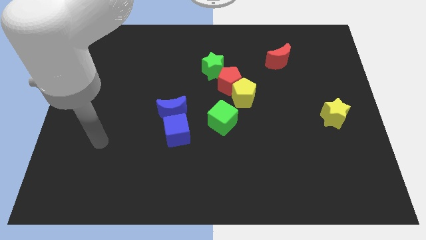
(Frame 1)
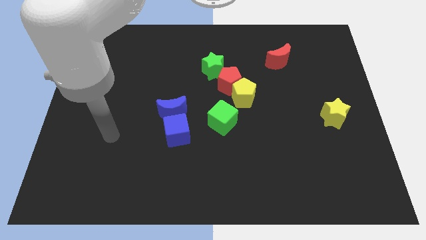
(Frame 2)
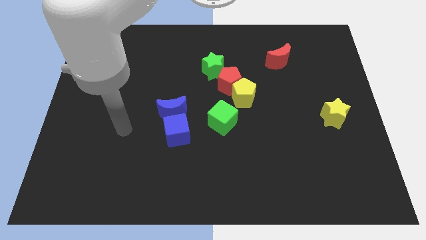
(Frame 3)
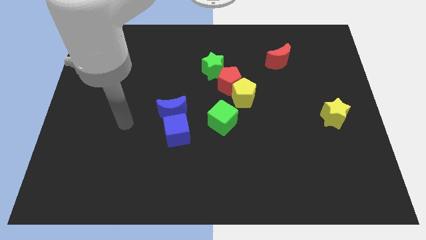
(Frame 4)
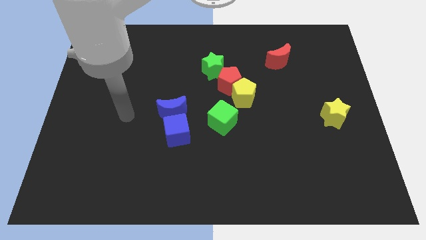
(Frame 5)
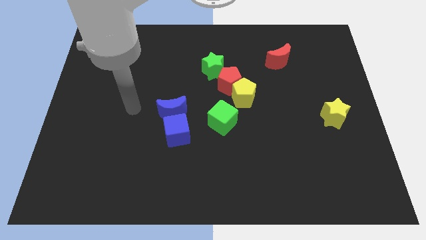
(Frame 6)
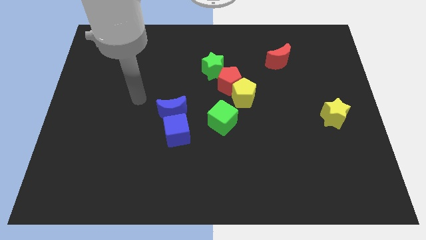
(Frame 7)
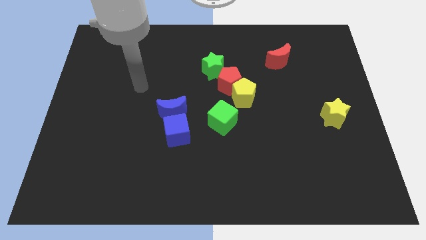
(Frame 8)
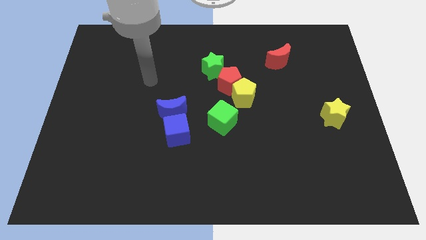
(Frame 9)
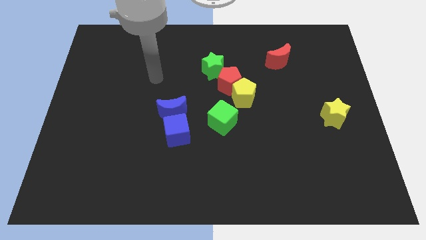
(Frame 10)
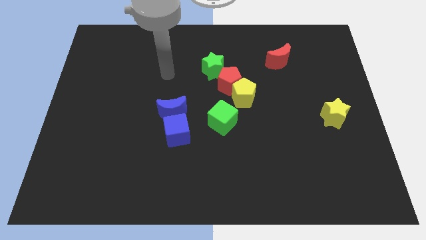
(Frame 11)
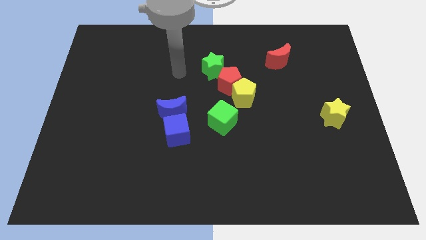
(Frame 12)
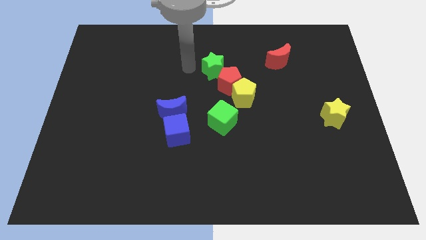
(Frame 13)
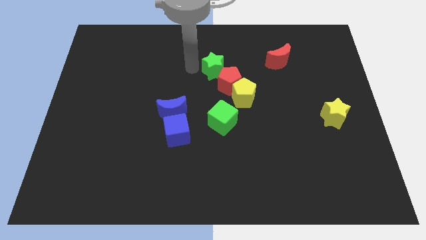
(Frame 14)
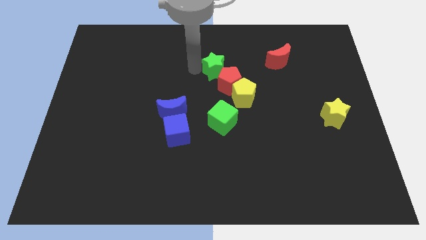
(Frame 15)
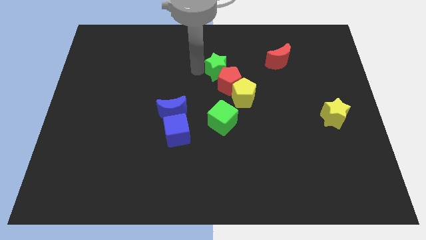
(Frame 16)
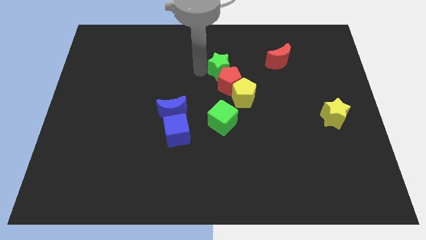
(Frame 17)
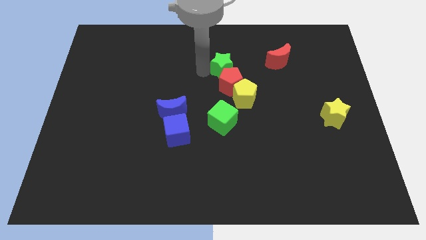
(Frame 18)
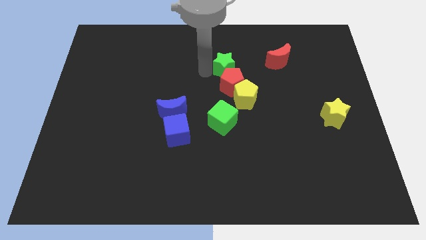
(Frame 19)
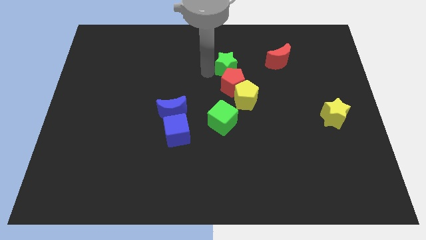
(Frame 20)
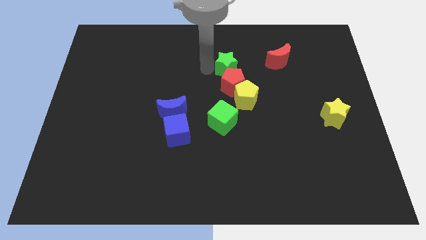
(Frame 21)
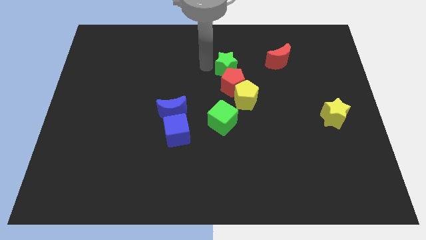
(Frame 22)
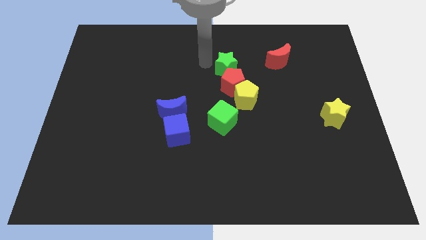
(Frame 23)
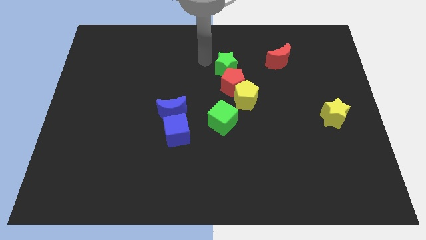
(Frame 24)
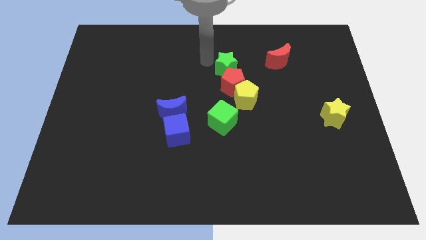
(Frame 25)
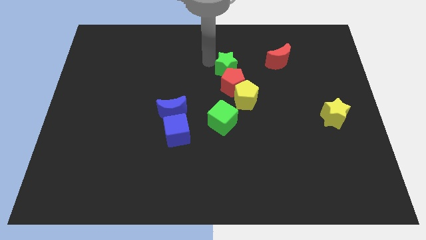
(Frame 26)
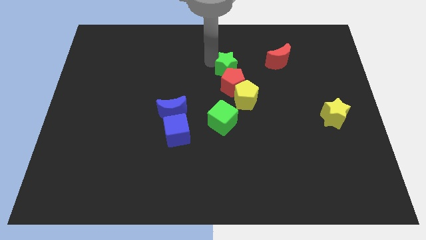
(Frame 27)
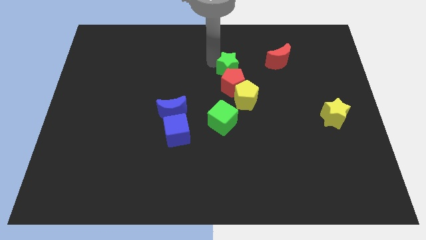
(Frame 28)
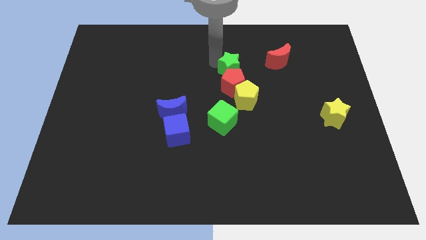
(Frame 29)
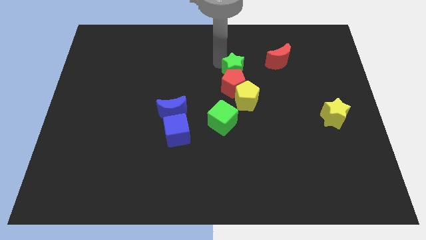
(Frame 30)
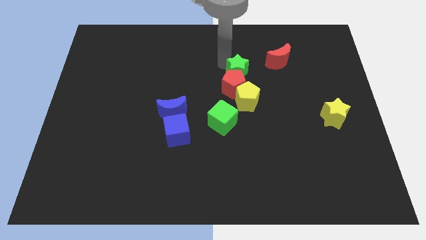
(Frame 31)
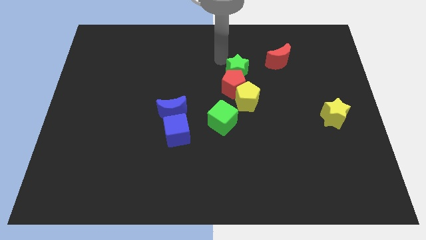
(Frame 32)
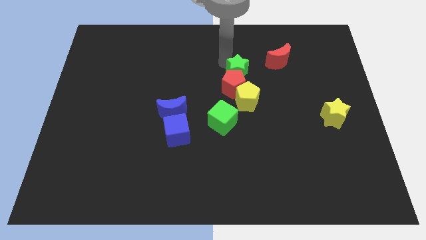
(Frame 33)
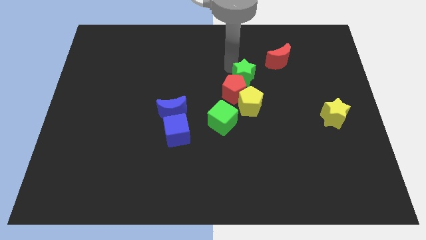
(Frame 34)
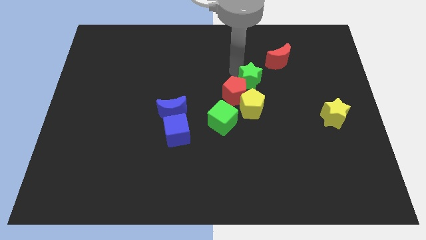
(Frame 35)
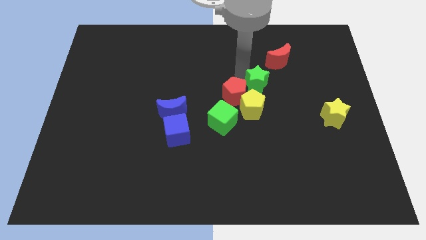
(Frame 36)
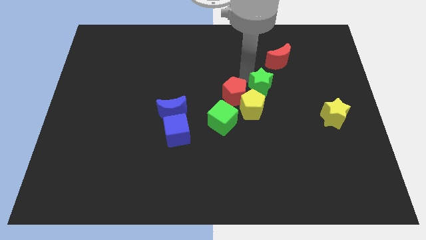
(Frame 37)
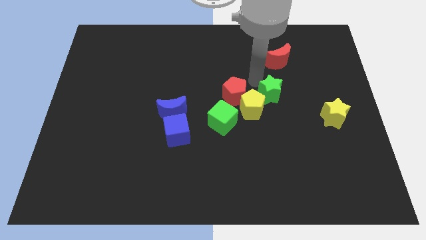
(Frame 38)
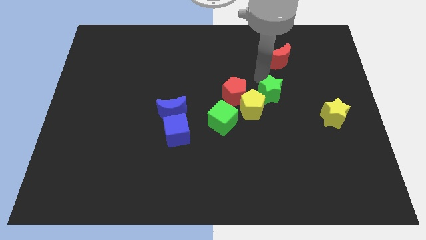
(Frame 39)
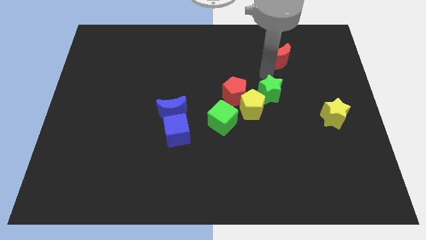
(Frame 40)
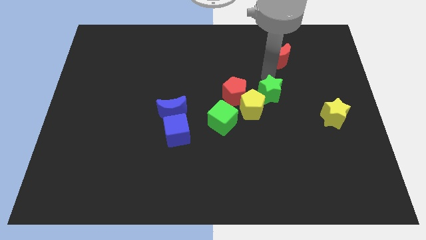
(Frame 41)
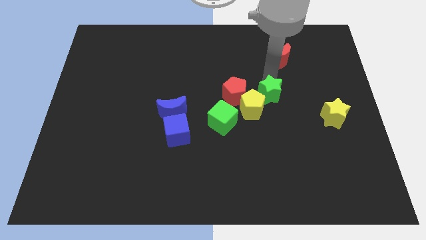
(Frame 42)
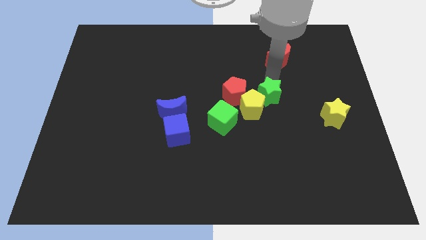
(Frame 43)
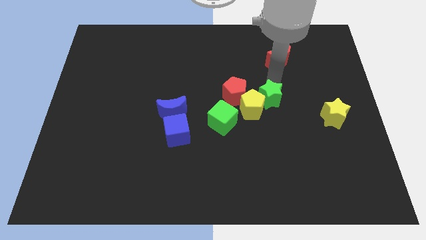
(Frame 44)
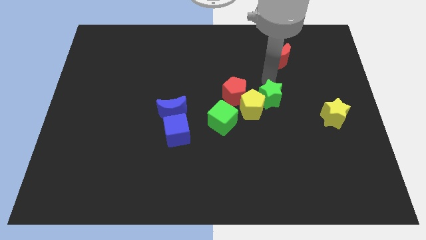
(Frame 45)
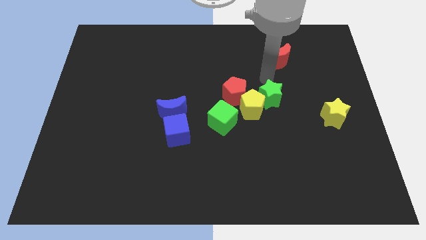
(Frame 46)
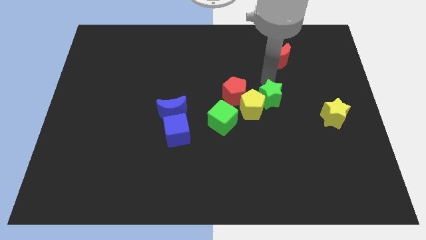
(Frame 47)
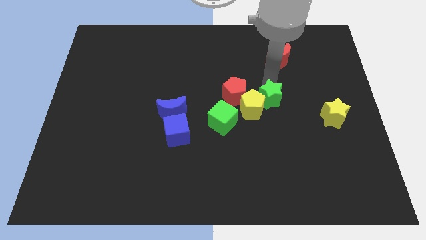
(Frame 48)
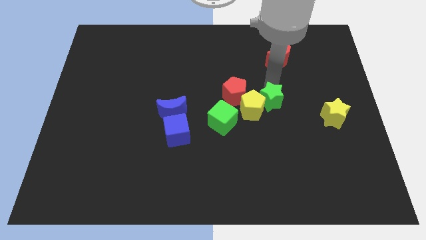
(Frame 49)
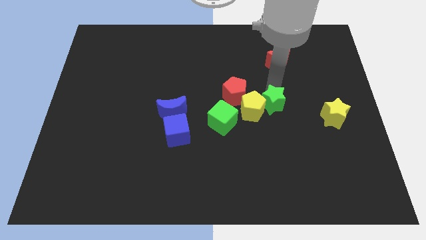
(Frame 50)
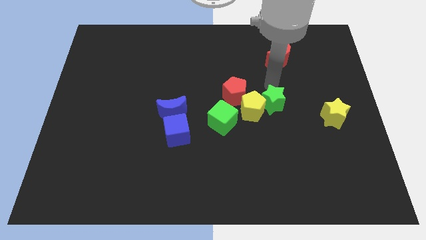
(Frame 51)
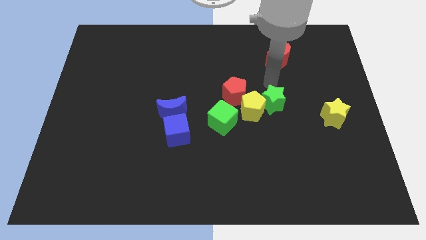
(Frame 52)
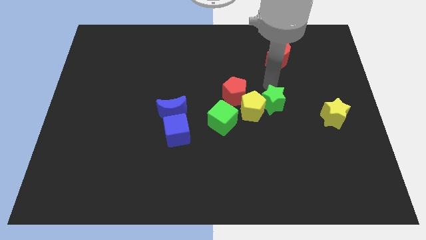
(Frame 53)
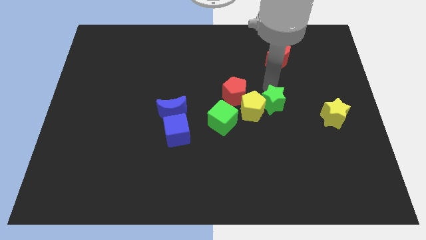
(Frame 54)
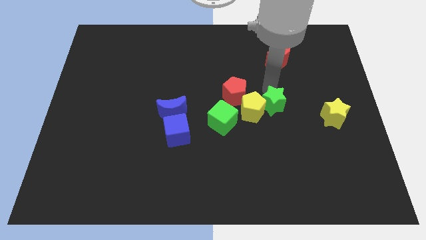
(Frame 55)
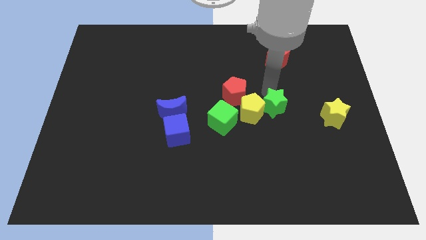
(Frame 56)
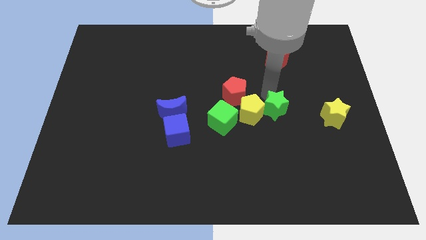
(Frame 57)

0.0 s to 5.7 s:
move the green star to the bottom right side of the yellow pentagon

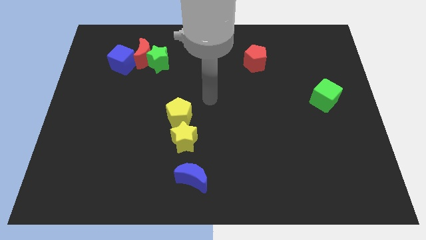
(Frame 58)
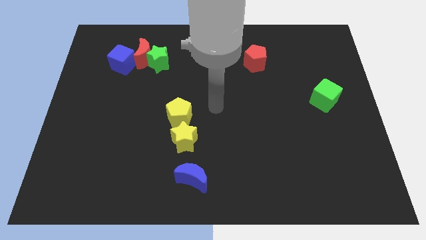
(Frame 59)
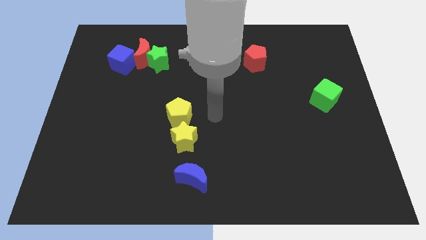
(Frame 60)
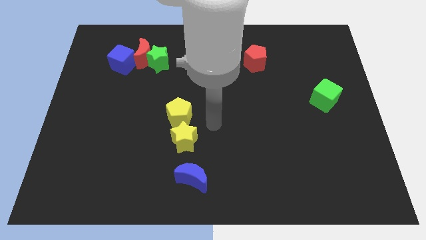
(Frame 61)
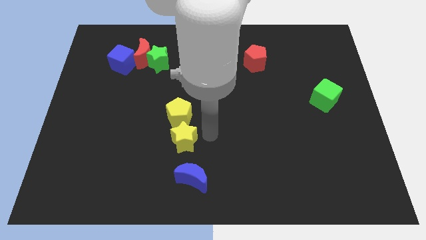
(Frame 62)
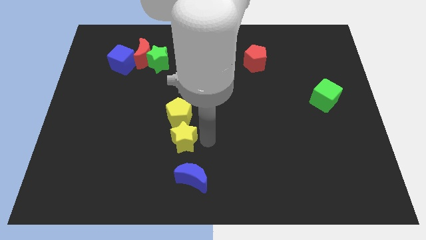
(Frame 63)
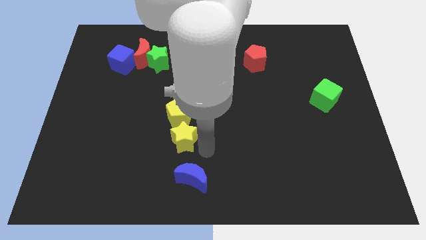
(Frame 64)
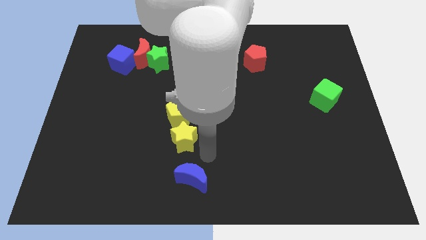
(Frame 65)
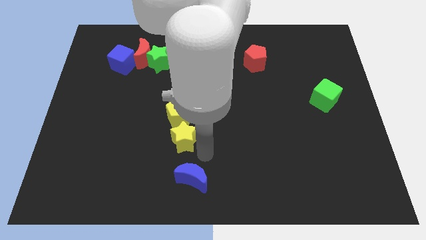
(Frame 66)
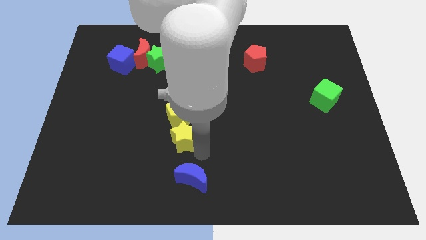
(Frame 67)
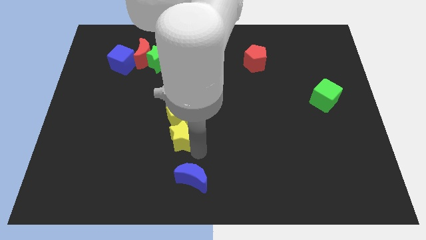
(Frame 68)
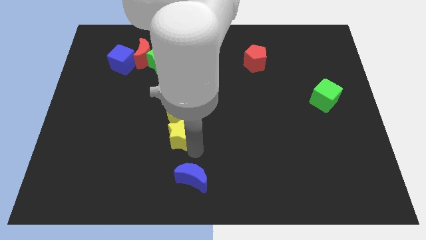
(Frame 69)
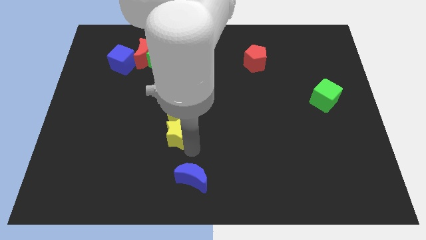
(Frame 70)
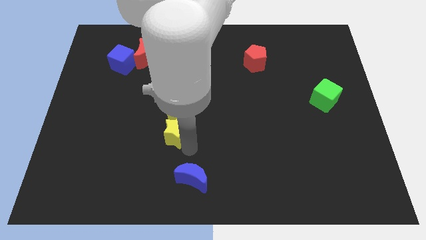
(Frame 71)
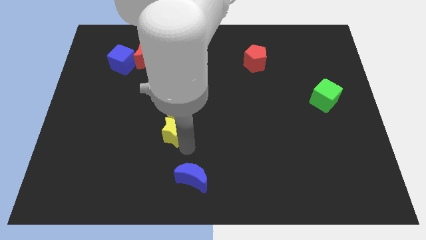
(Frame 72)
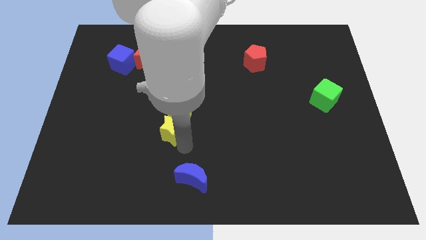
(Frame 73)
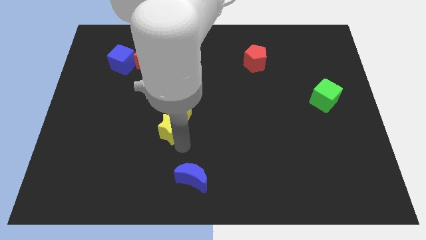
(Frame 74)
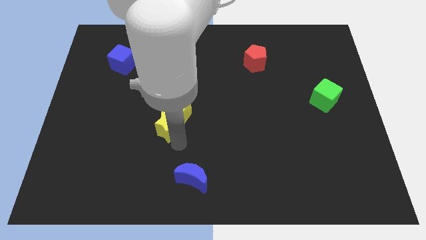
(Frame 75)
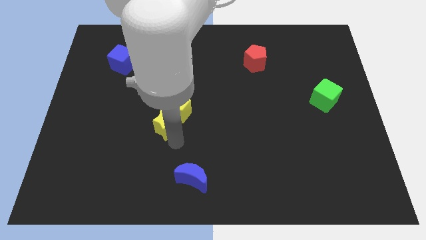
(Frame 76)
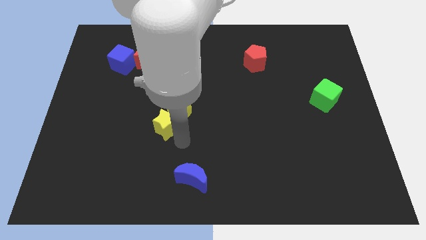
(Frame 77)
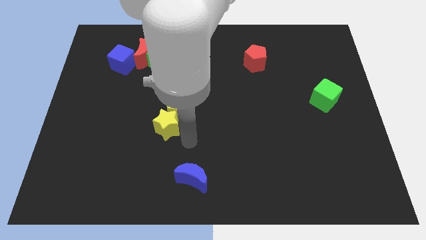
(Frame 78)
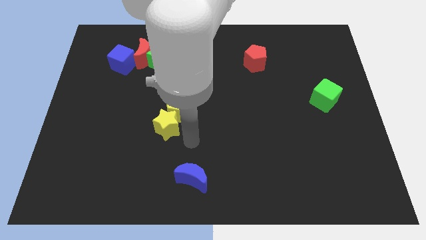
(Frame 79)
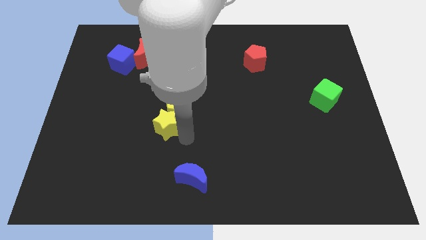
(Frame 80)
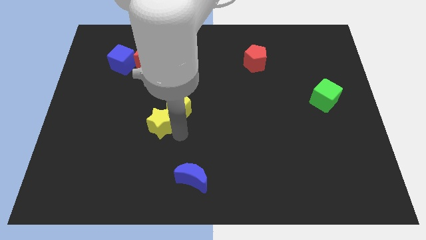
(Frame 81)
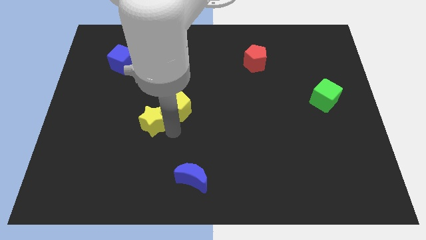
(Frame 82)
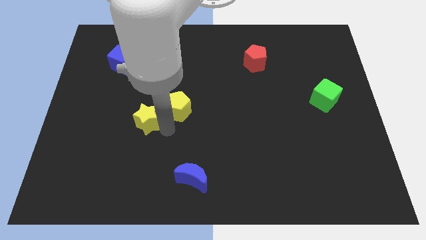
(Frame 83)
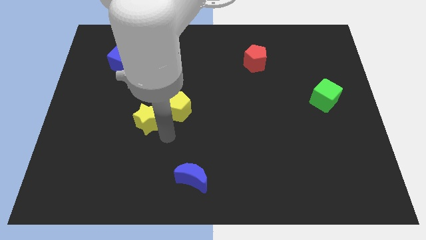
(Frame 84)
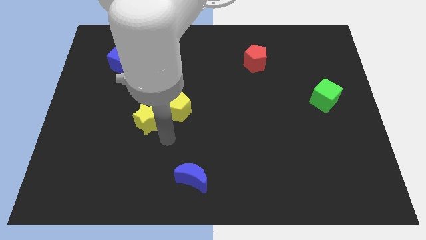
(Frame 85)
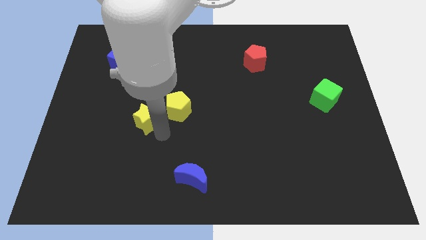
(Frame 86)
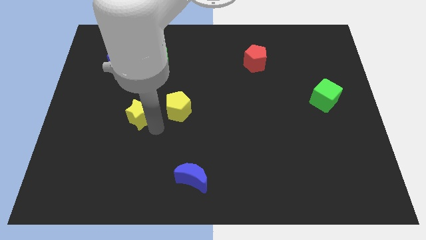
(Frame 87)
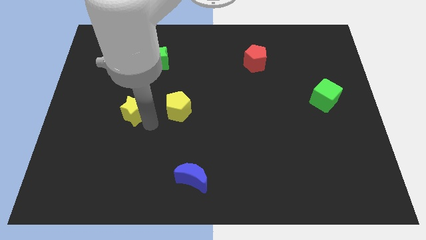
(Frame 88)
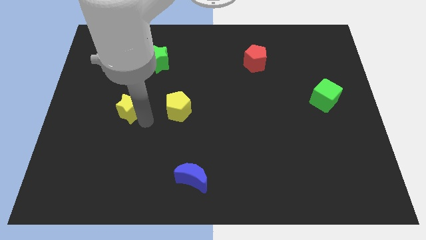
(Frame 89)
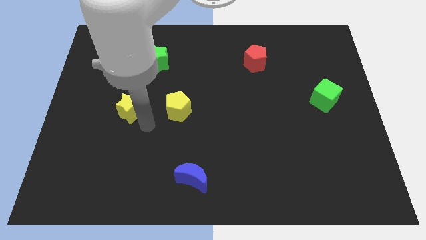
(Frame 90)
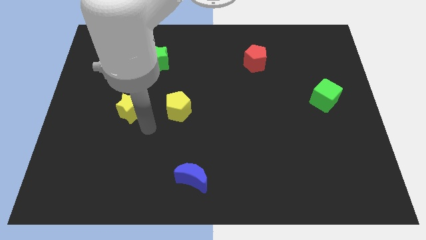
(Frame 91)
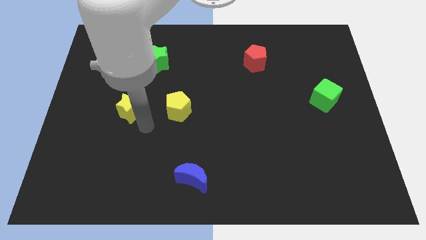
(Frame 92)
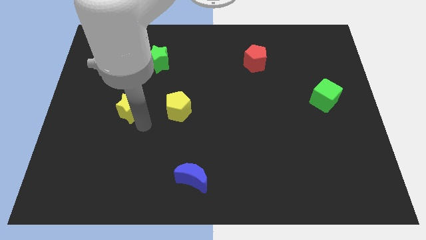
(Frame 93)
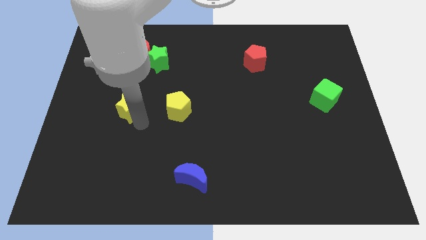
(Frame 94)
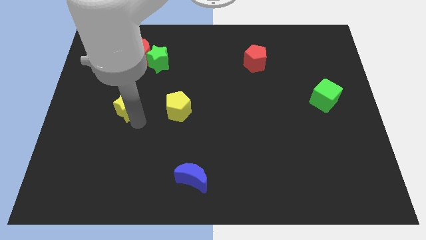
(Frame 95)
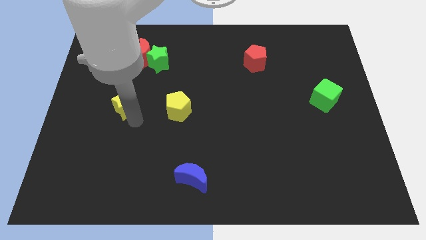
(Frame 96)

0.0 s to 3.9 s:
slide the yellow star to the bottom side of the blue cube
